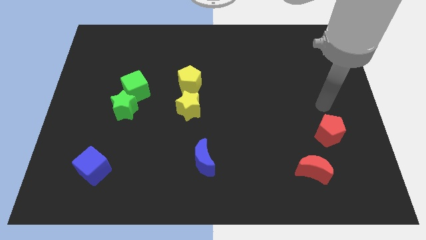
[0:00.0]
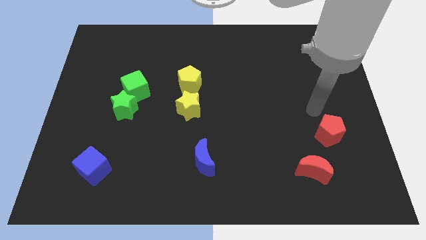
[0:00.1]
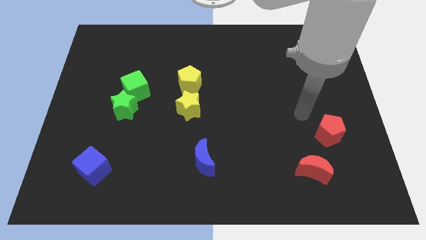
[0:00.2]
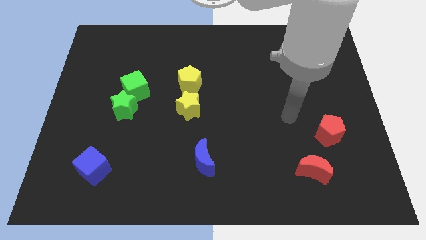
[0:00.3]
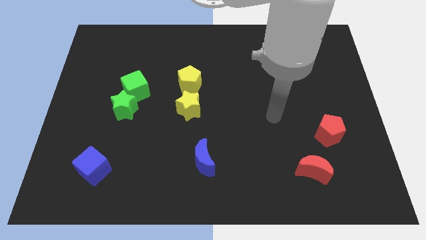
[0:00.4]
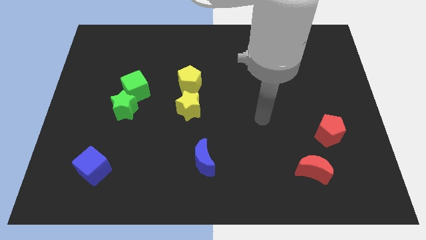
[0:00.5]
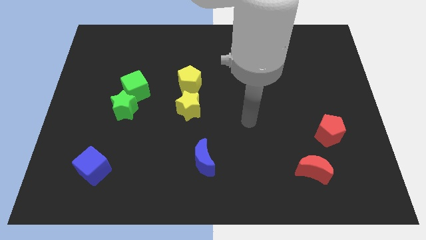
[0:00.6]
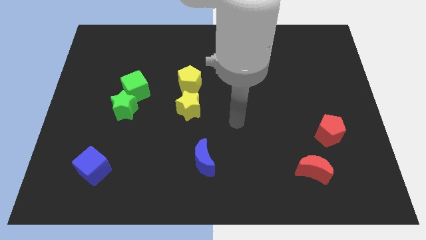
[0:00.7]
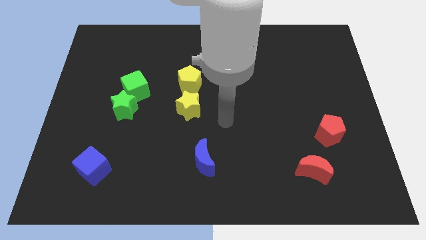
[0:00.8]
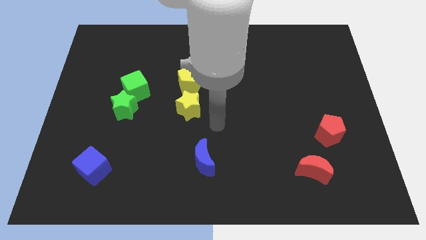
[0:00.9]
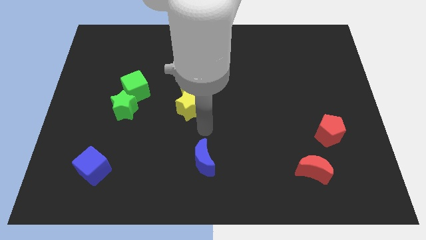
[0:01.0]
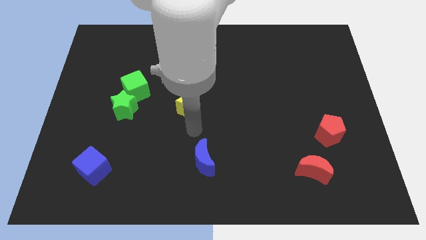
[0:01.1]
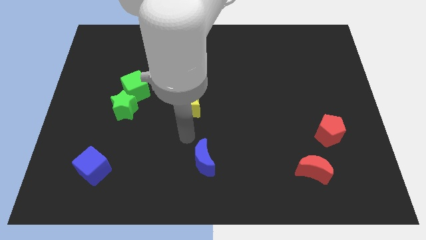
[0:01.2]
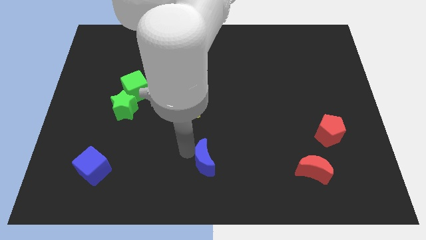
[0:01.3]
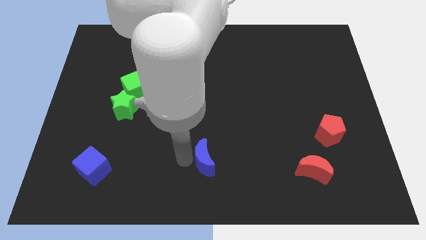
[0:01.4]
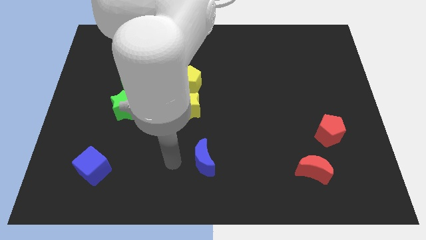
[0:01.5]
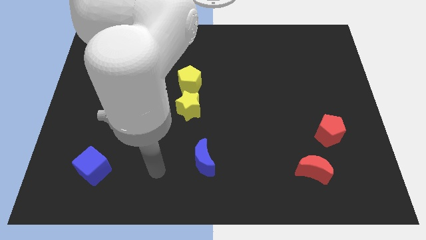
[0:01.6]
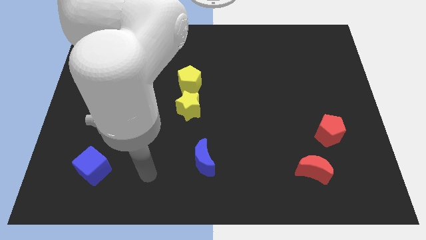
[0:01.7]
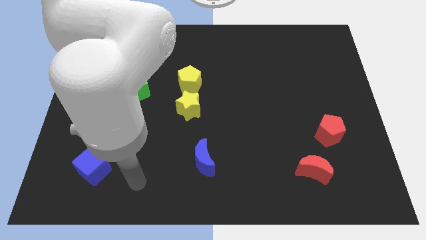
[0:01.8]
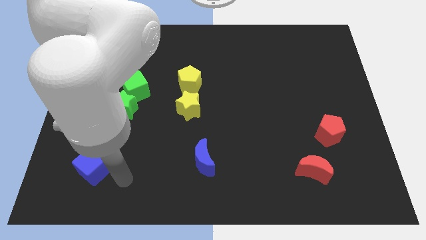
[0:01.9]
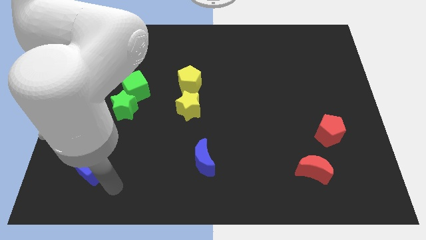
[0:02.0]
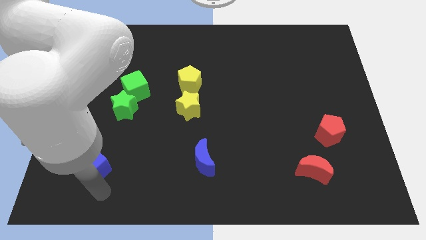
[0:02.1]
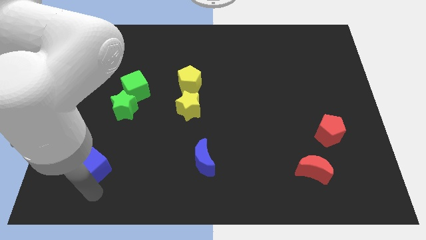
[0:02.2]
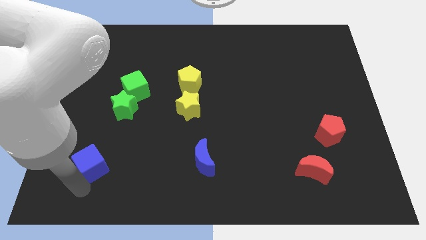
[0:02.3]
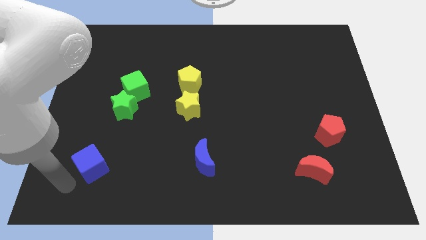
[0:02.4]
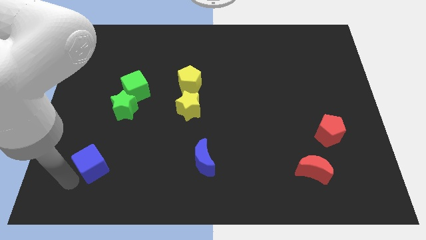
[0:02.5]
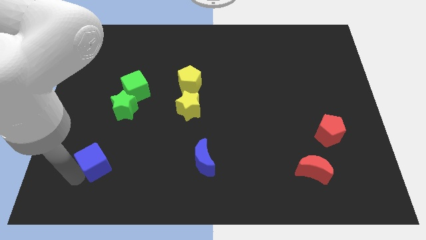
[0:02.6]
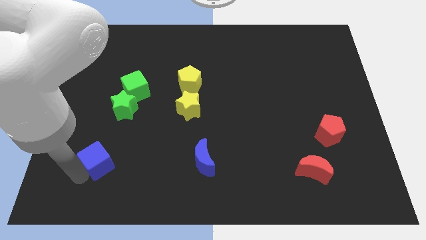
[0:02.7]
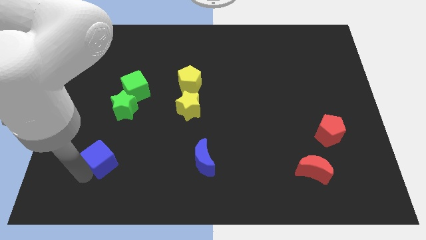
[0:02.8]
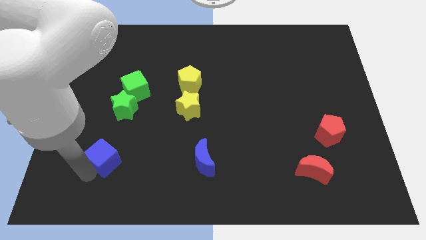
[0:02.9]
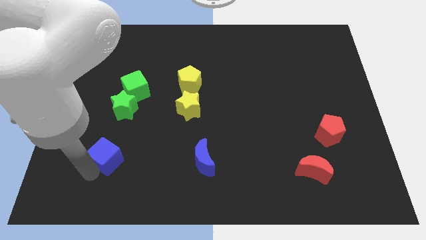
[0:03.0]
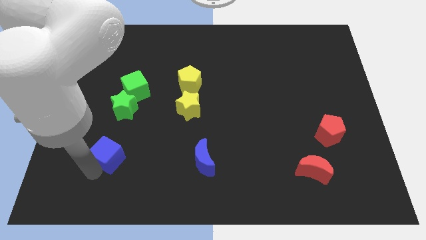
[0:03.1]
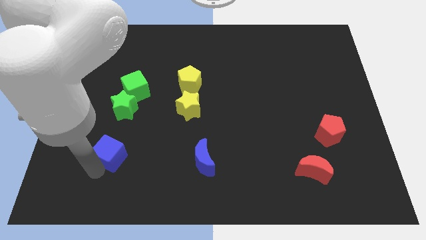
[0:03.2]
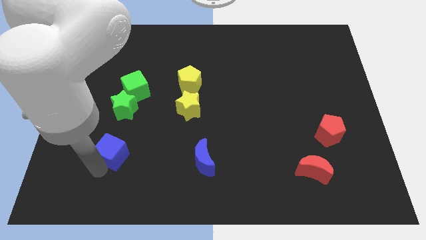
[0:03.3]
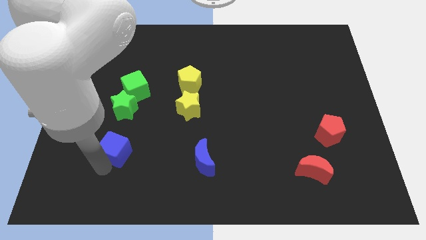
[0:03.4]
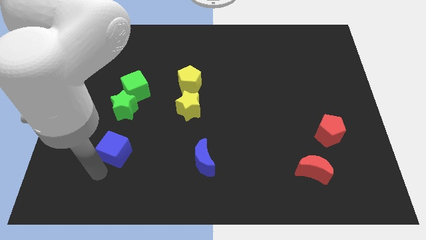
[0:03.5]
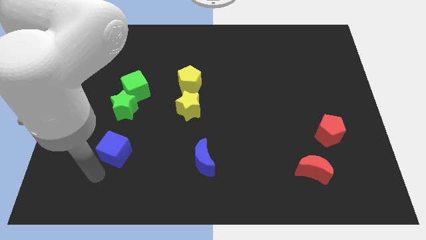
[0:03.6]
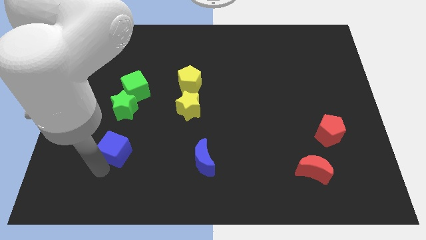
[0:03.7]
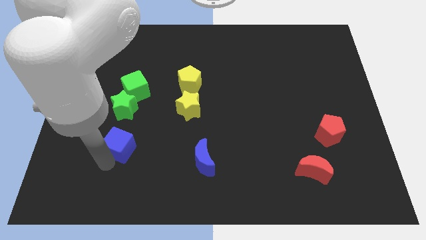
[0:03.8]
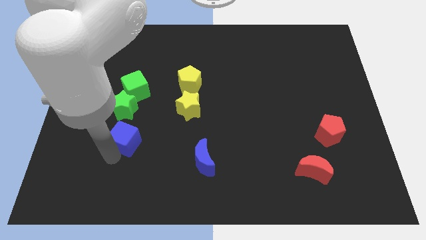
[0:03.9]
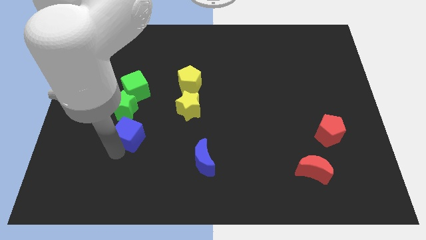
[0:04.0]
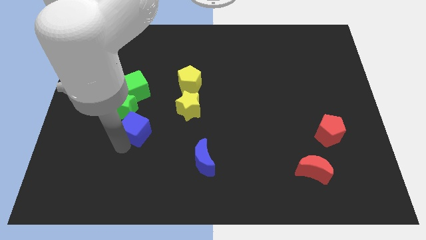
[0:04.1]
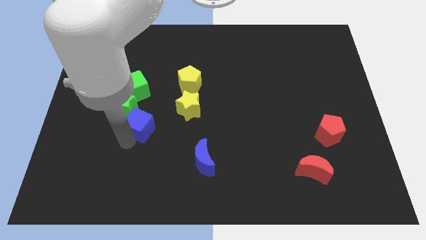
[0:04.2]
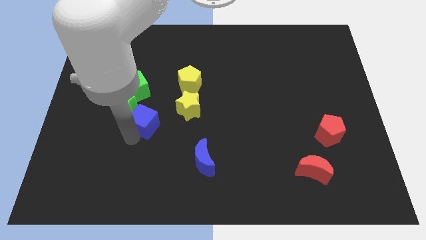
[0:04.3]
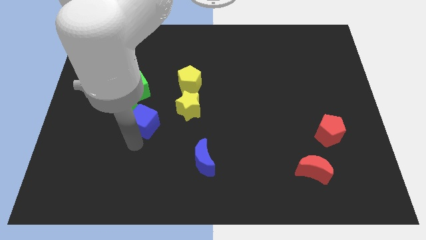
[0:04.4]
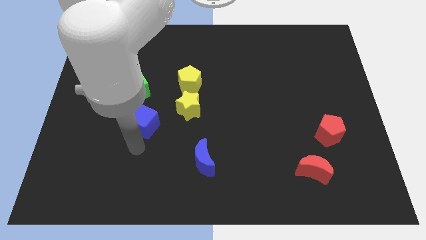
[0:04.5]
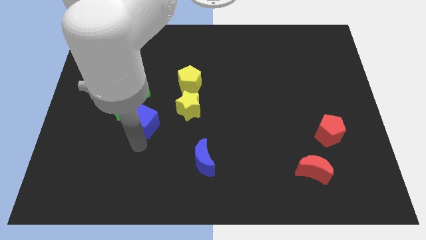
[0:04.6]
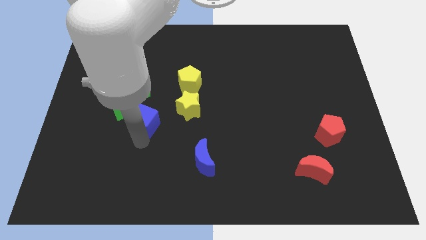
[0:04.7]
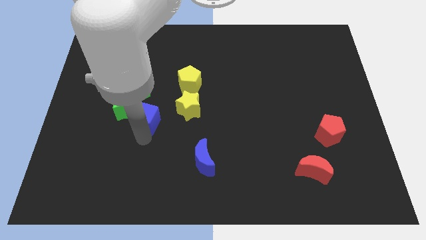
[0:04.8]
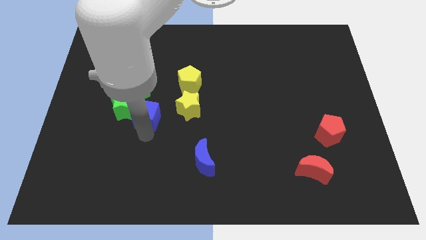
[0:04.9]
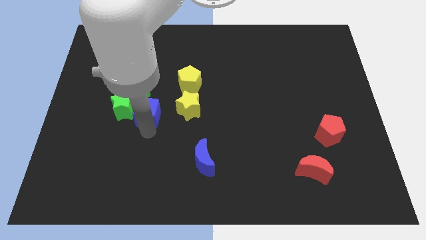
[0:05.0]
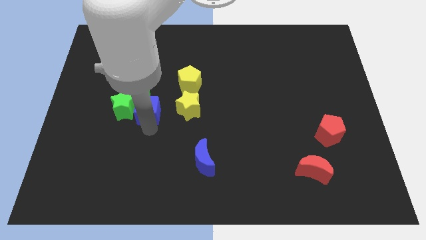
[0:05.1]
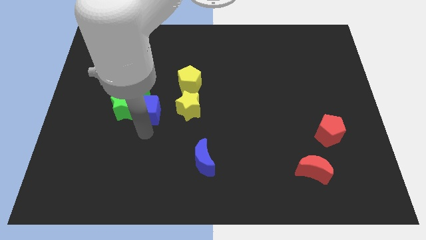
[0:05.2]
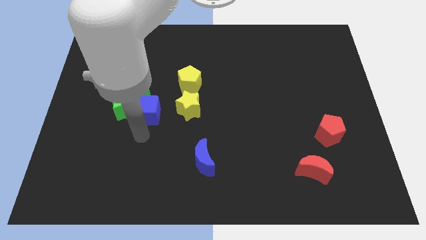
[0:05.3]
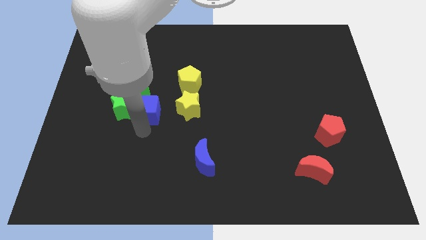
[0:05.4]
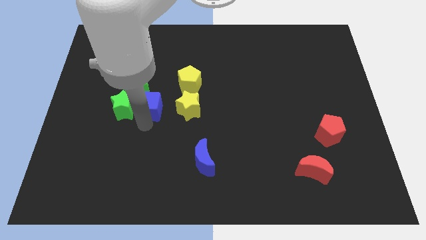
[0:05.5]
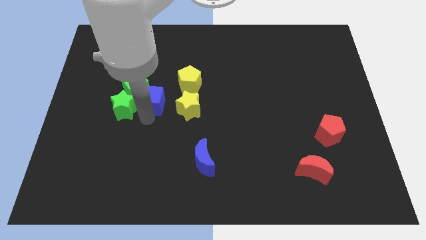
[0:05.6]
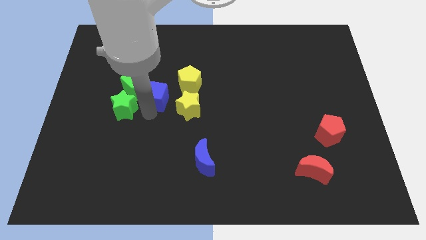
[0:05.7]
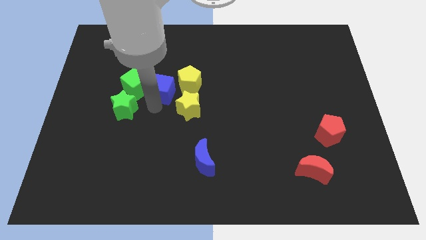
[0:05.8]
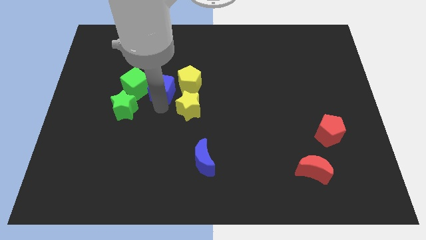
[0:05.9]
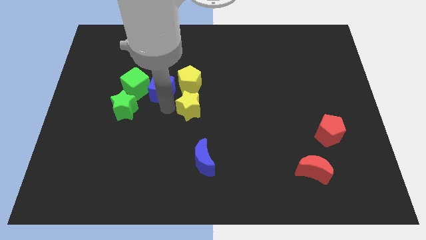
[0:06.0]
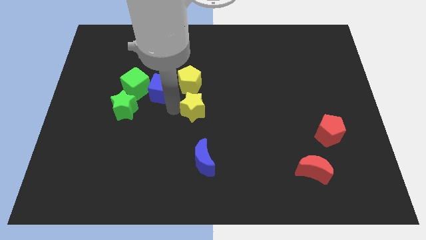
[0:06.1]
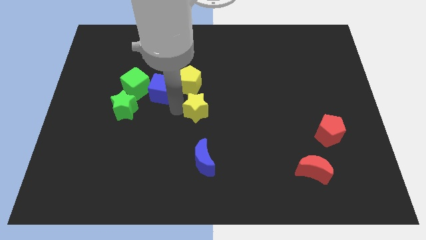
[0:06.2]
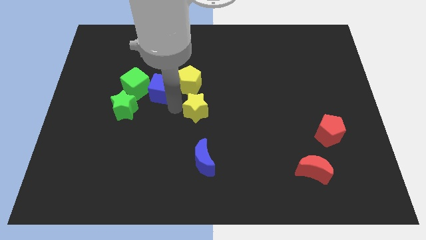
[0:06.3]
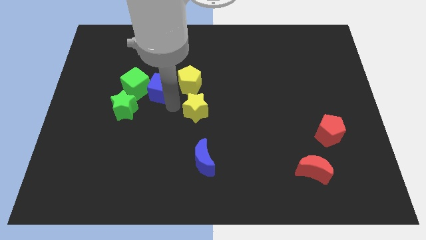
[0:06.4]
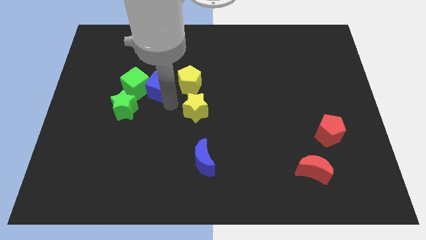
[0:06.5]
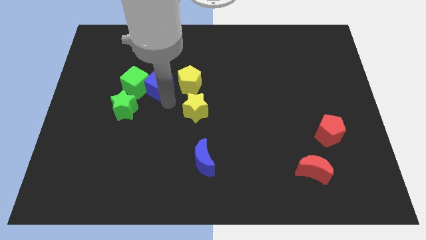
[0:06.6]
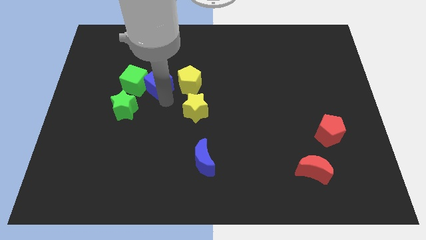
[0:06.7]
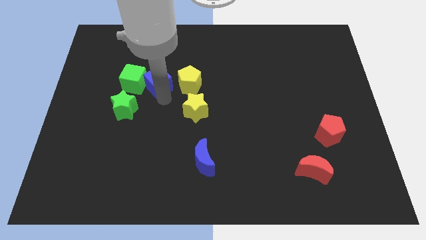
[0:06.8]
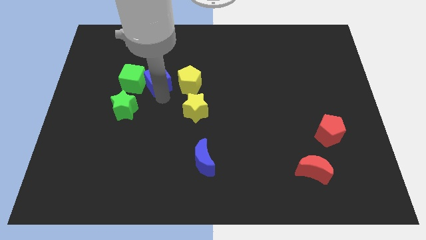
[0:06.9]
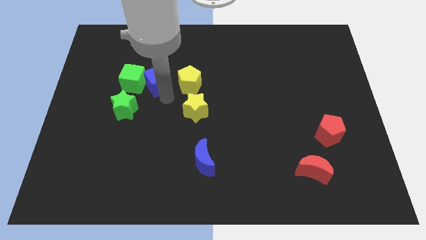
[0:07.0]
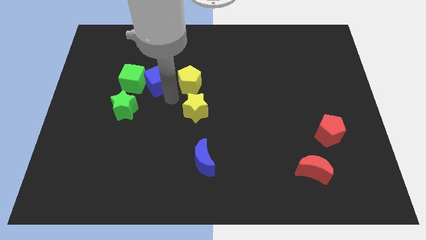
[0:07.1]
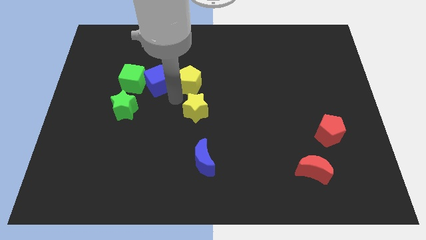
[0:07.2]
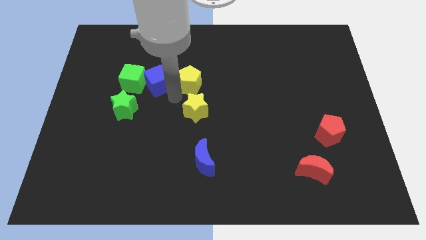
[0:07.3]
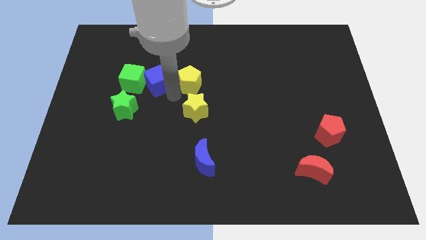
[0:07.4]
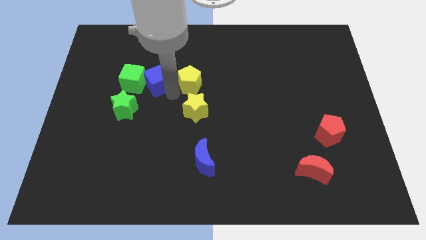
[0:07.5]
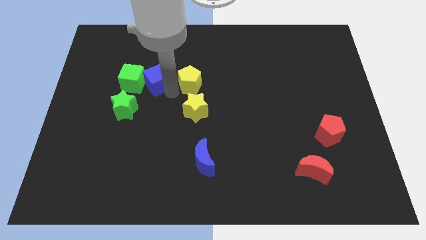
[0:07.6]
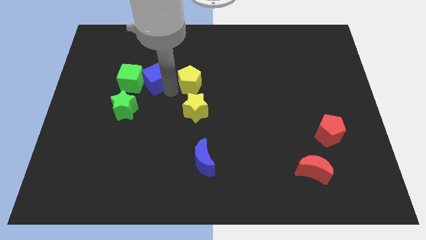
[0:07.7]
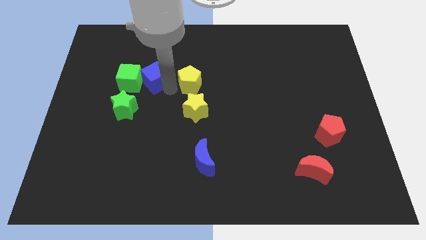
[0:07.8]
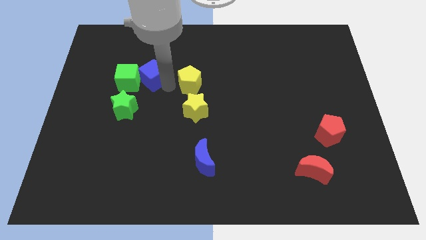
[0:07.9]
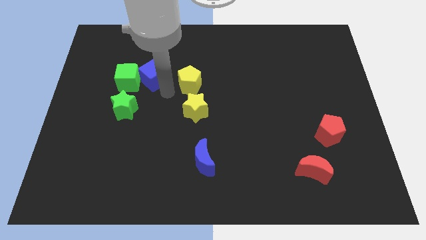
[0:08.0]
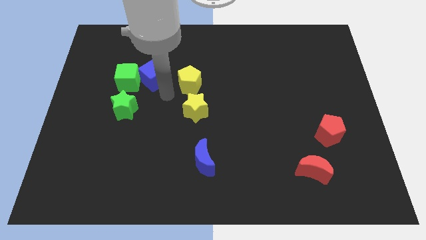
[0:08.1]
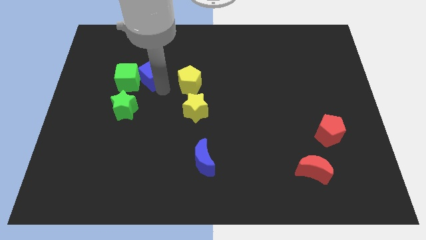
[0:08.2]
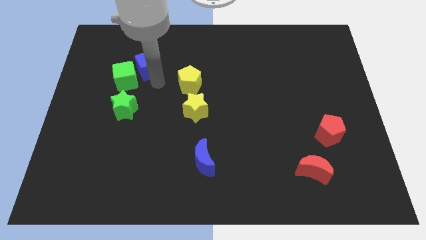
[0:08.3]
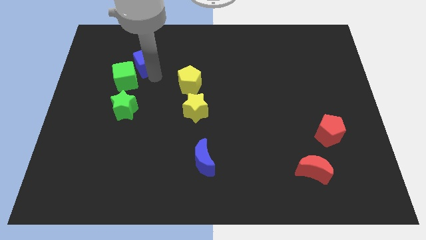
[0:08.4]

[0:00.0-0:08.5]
slide the blue cube to the top side of the green cube
